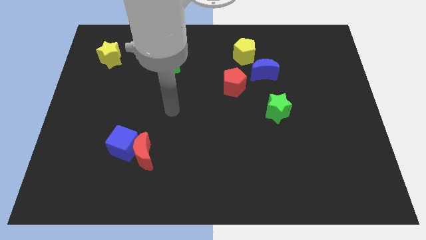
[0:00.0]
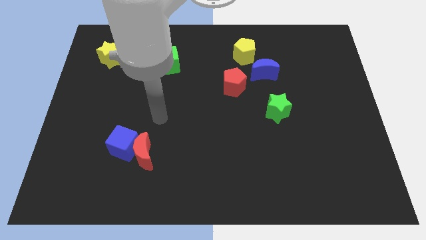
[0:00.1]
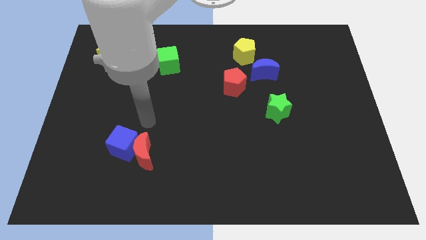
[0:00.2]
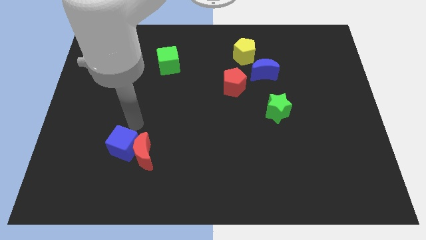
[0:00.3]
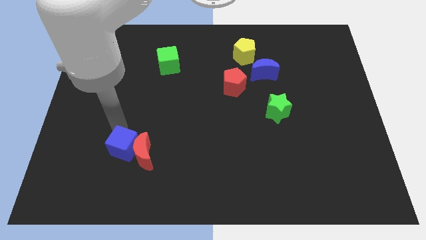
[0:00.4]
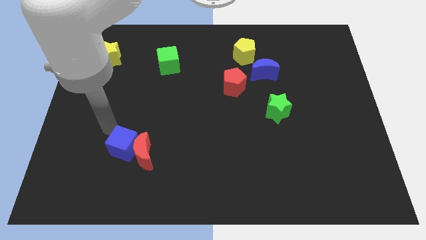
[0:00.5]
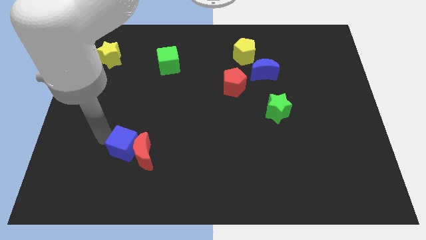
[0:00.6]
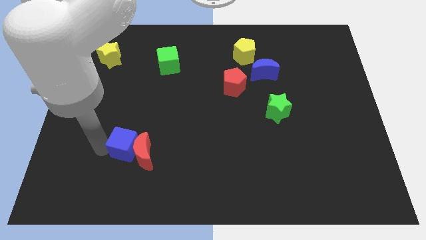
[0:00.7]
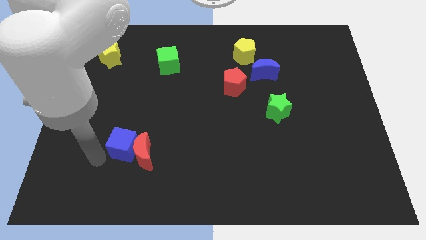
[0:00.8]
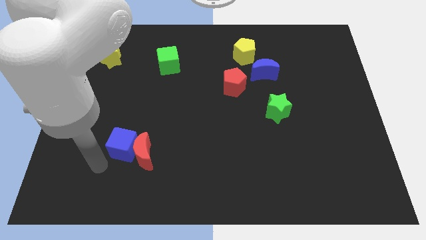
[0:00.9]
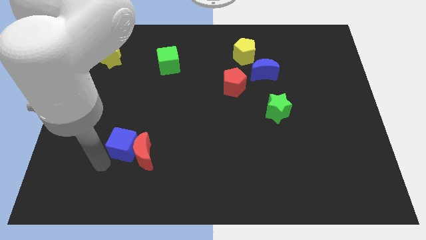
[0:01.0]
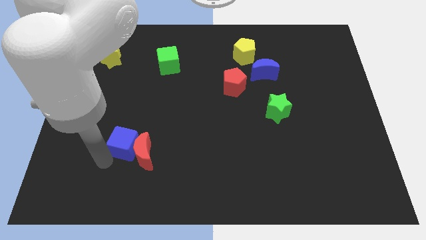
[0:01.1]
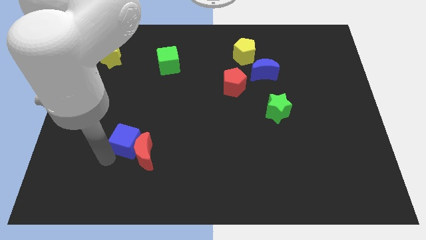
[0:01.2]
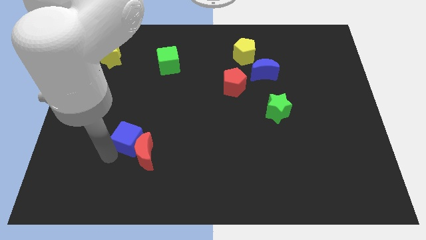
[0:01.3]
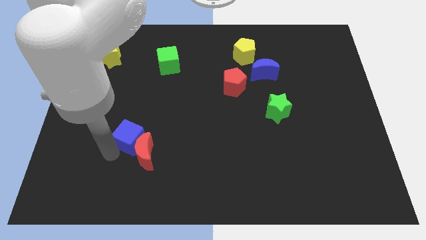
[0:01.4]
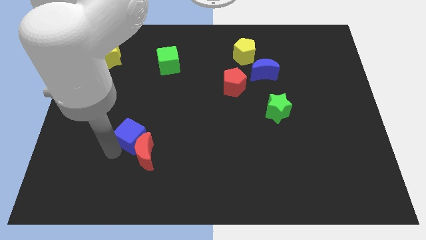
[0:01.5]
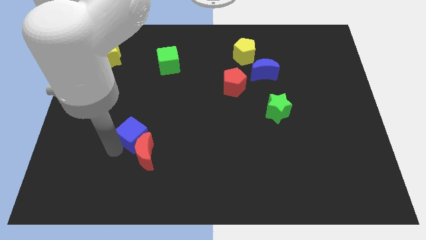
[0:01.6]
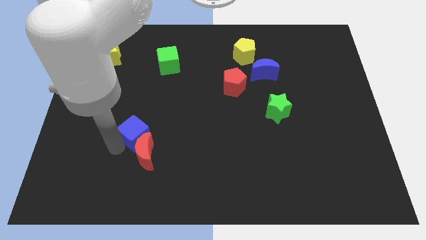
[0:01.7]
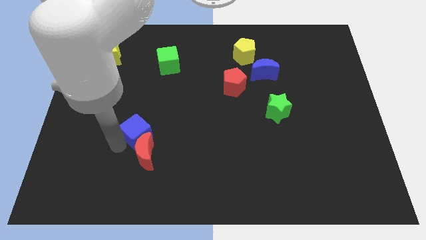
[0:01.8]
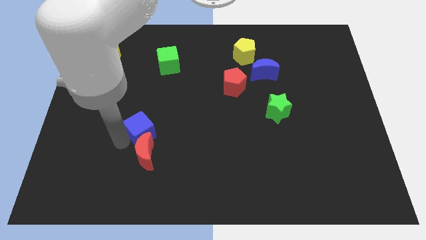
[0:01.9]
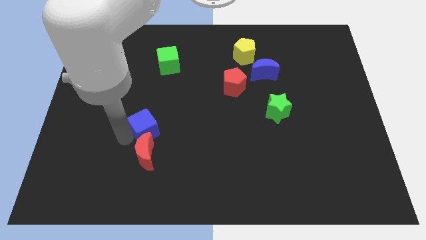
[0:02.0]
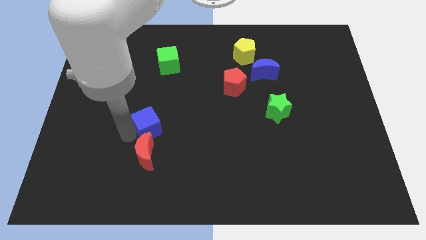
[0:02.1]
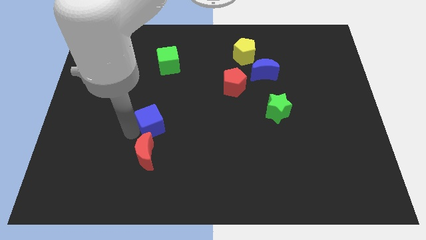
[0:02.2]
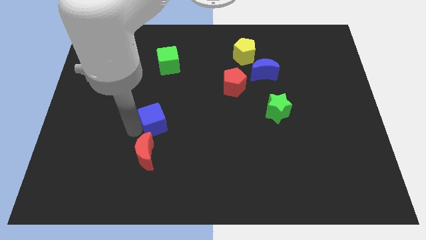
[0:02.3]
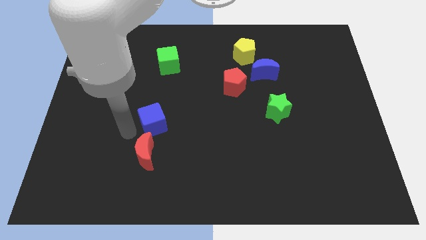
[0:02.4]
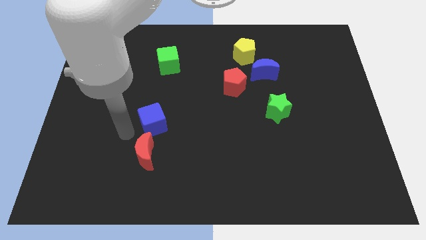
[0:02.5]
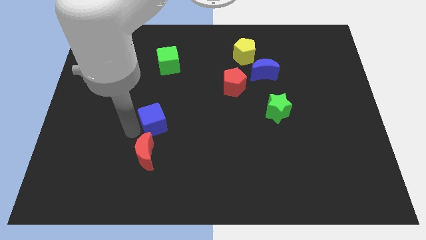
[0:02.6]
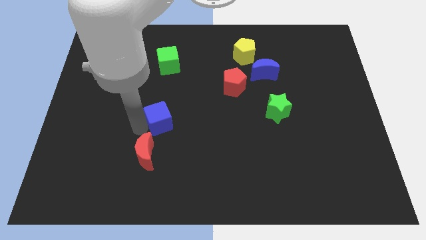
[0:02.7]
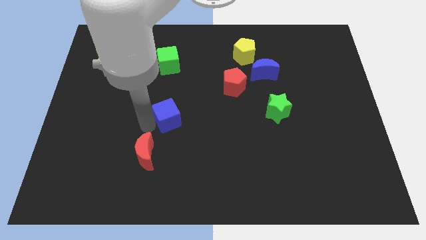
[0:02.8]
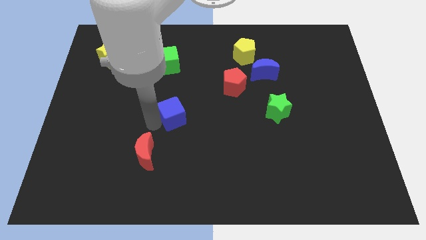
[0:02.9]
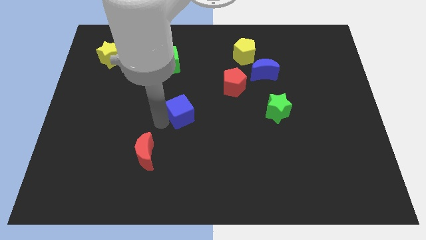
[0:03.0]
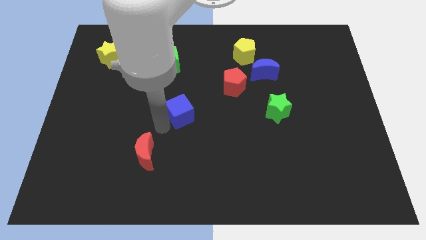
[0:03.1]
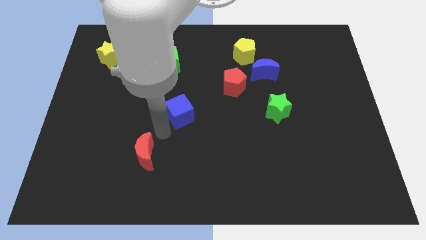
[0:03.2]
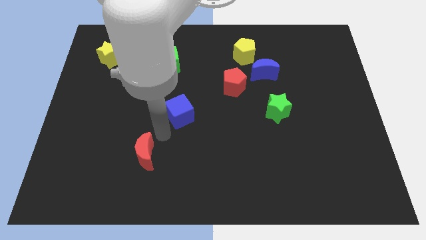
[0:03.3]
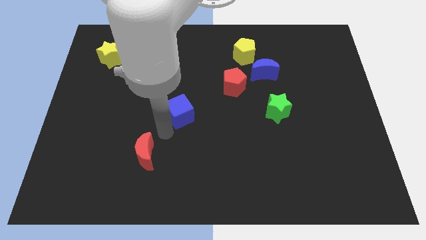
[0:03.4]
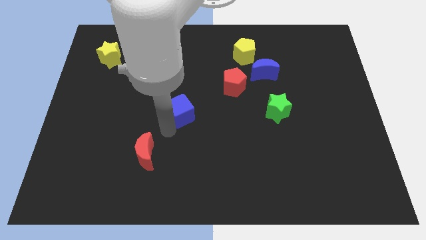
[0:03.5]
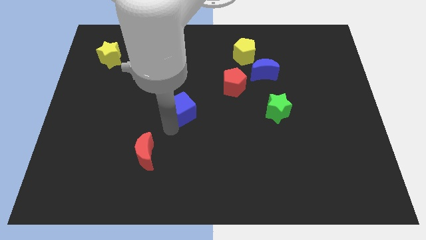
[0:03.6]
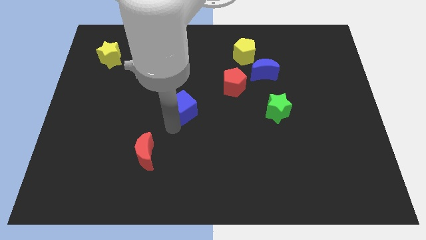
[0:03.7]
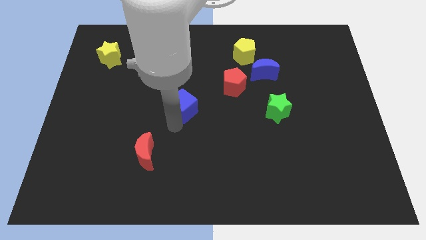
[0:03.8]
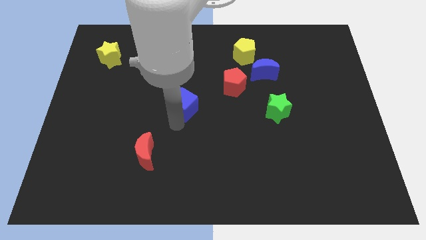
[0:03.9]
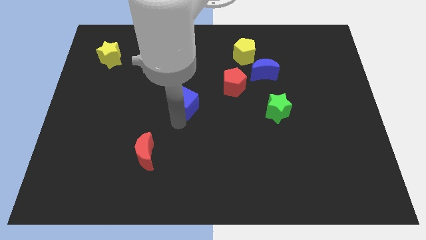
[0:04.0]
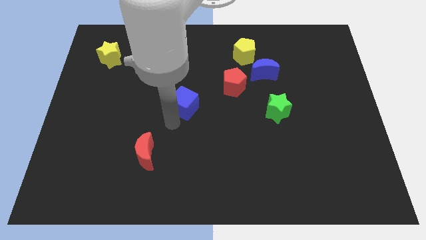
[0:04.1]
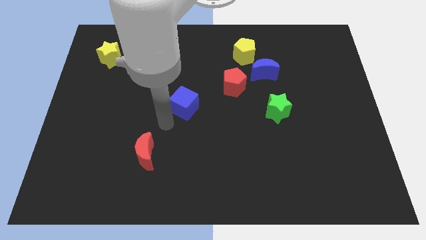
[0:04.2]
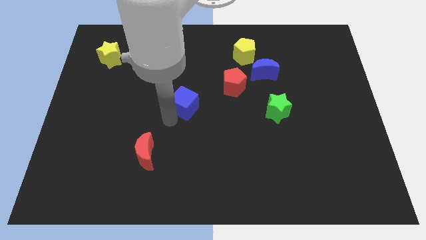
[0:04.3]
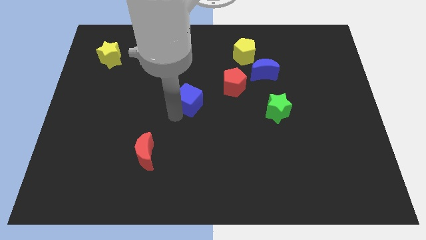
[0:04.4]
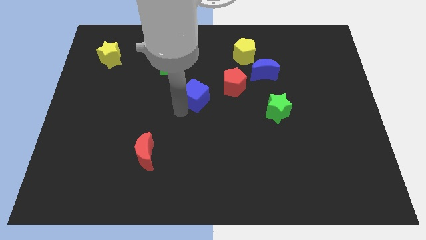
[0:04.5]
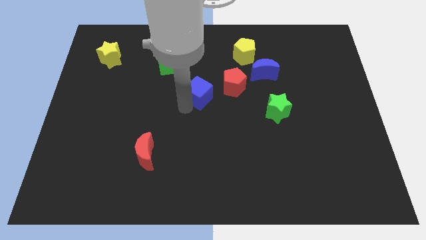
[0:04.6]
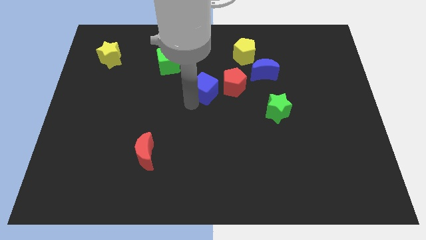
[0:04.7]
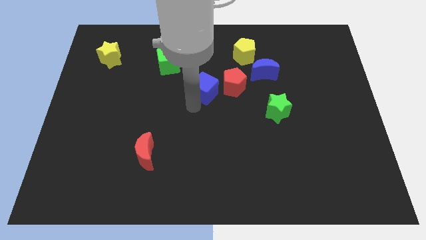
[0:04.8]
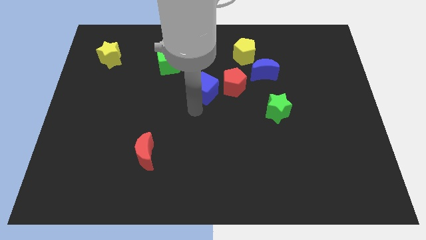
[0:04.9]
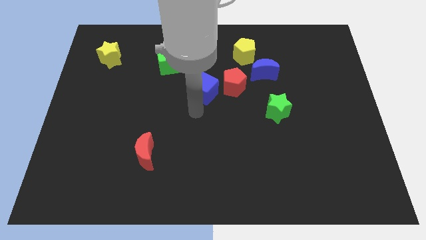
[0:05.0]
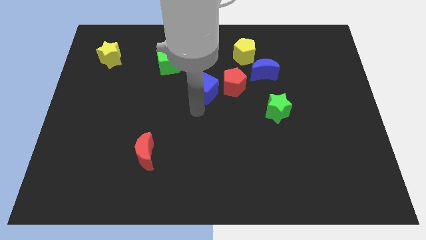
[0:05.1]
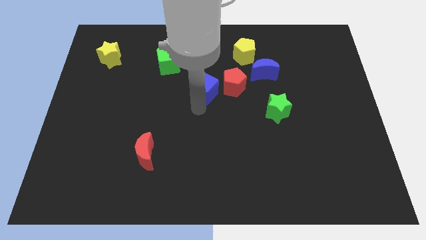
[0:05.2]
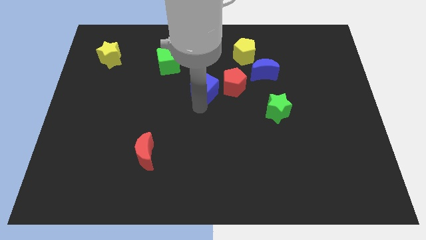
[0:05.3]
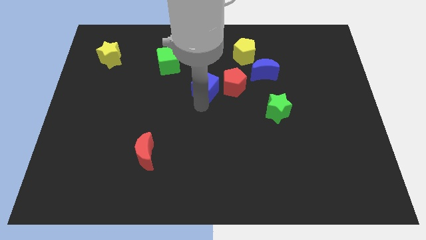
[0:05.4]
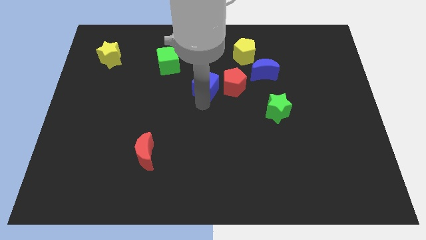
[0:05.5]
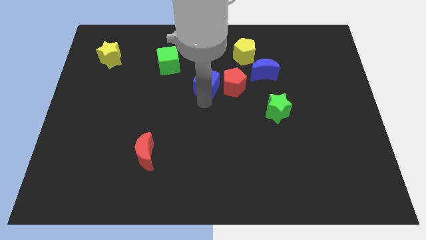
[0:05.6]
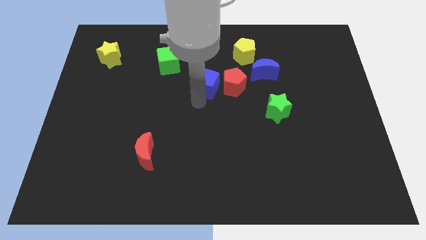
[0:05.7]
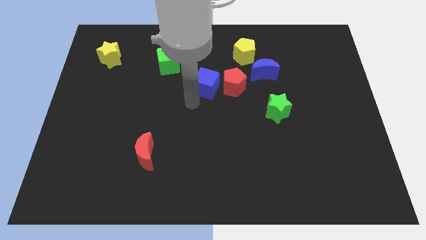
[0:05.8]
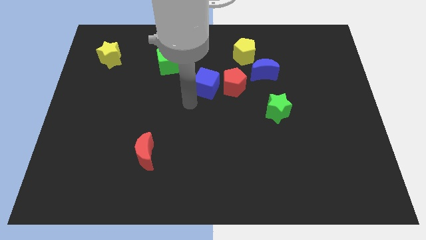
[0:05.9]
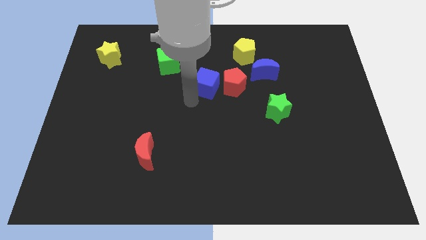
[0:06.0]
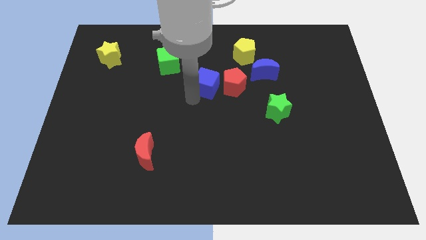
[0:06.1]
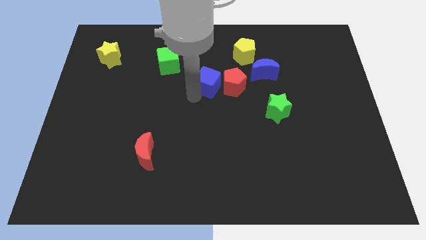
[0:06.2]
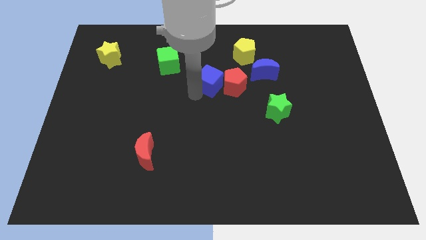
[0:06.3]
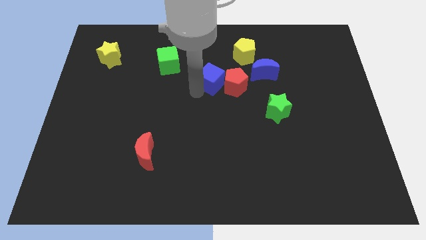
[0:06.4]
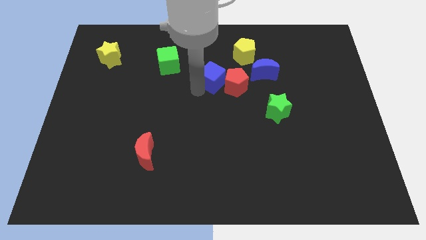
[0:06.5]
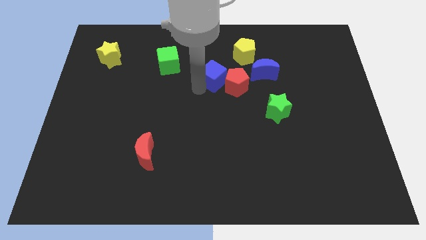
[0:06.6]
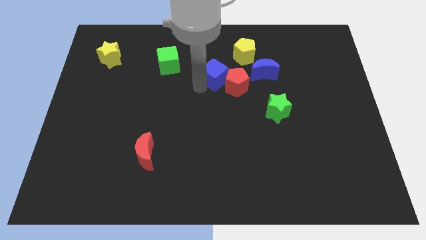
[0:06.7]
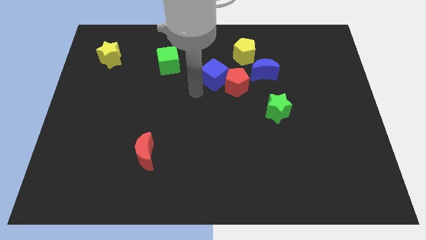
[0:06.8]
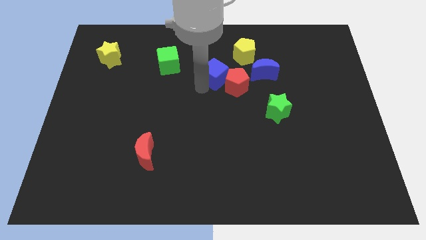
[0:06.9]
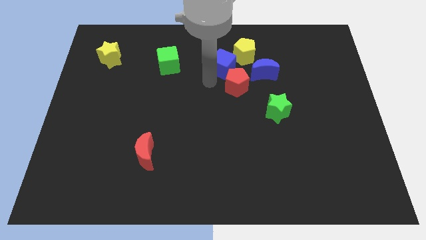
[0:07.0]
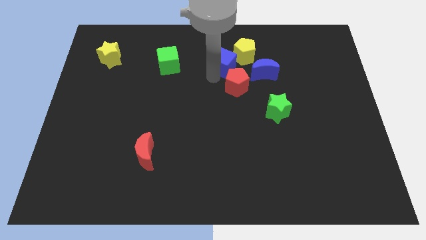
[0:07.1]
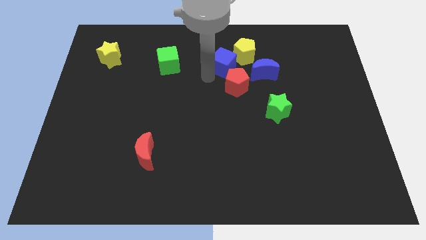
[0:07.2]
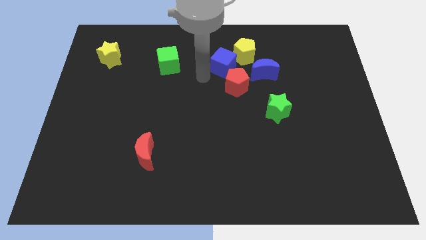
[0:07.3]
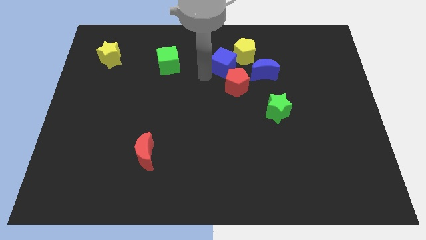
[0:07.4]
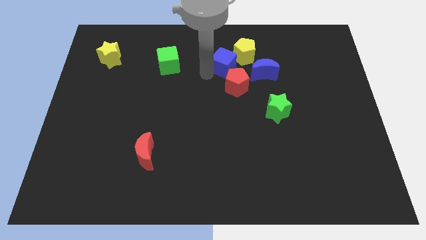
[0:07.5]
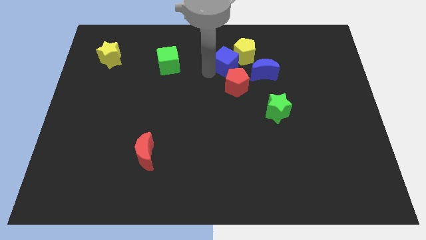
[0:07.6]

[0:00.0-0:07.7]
push the blue cube next to the yellow pentagon
